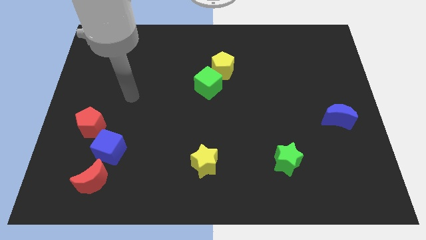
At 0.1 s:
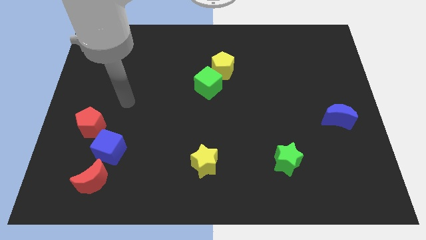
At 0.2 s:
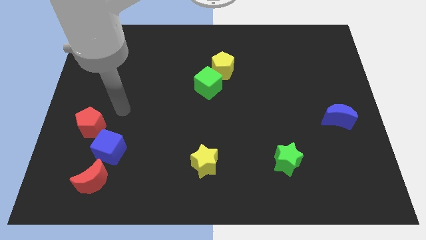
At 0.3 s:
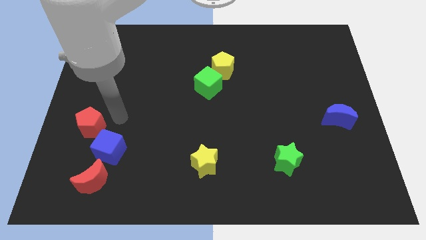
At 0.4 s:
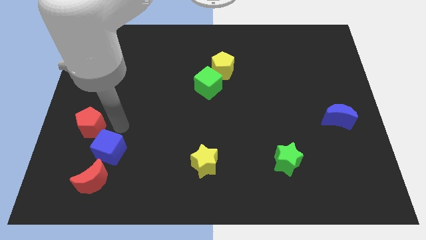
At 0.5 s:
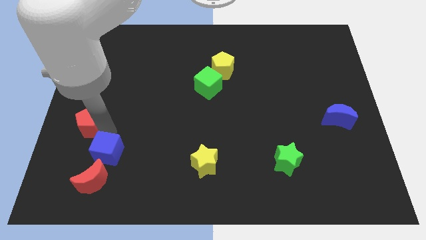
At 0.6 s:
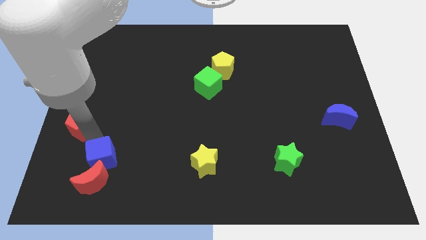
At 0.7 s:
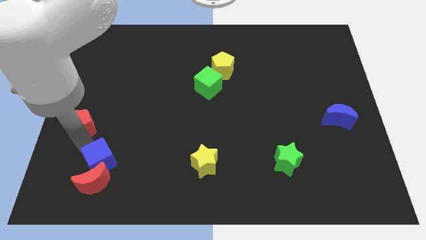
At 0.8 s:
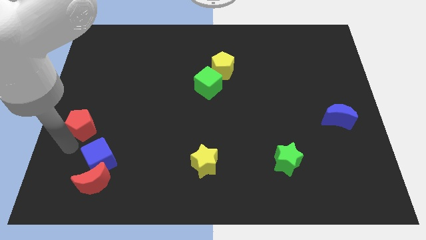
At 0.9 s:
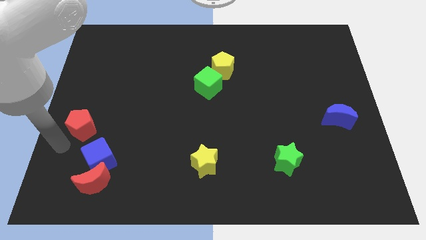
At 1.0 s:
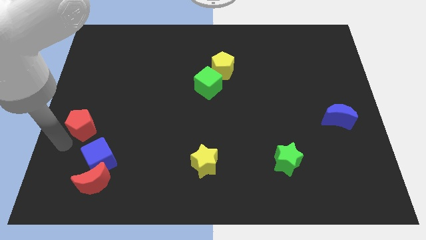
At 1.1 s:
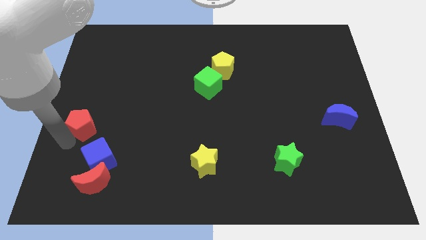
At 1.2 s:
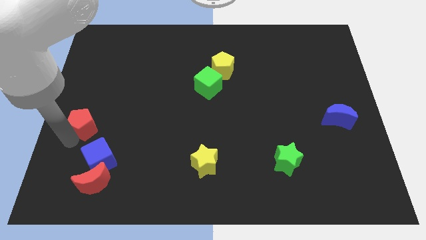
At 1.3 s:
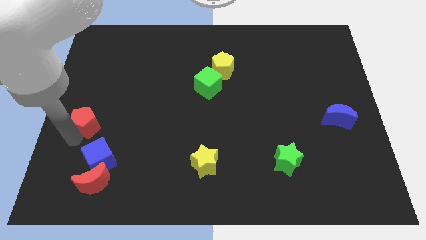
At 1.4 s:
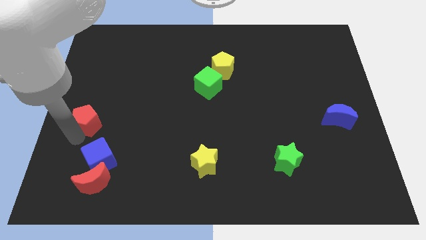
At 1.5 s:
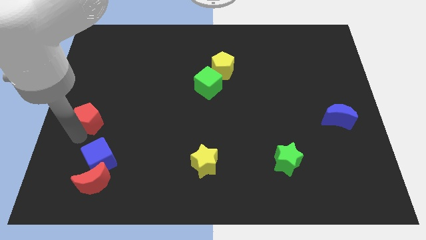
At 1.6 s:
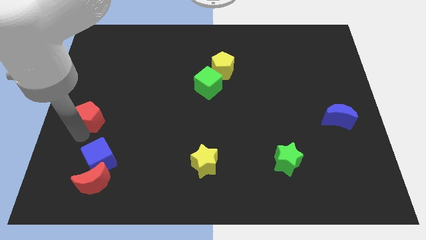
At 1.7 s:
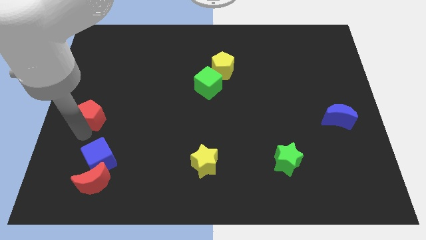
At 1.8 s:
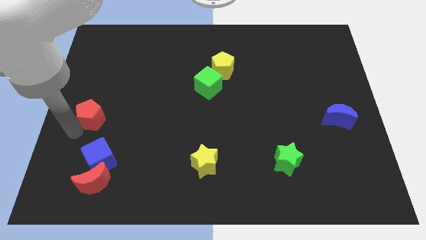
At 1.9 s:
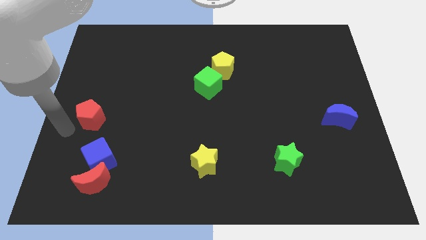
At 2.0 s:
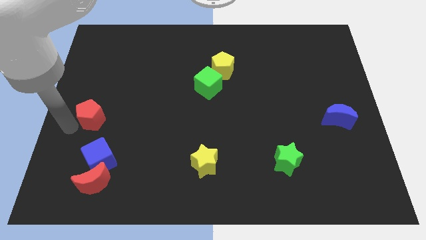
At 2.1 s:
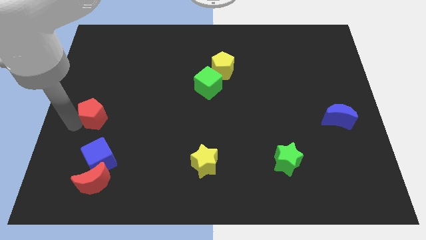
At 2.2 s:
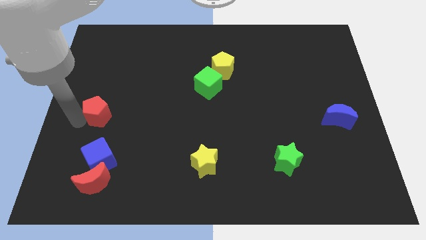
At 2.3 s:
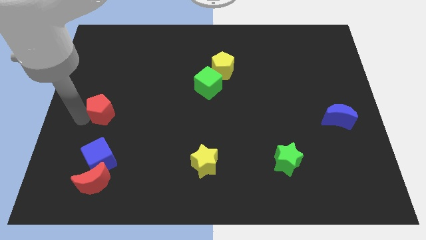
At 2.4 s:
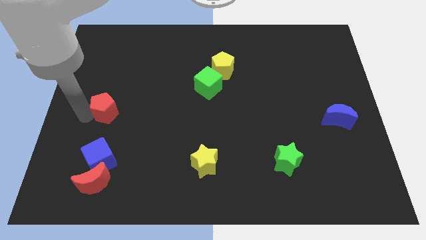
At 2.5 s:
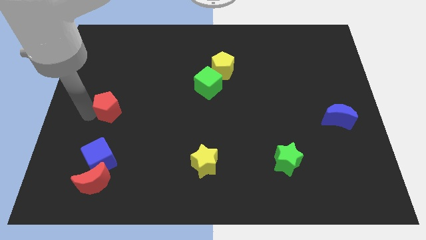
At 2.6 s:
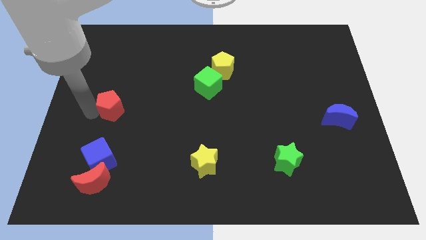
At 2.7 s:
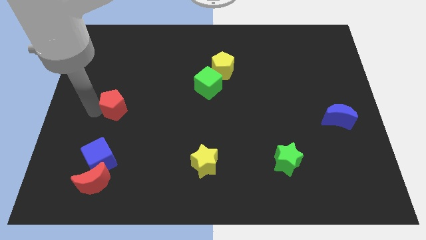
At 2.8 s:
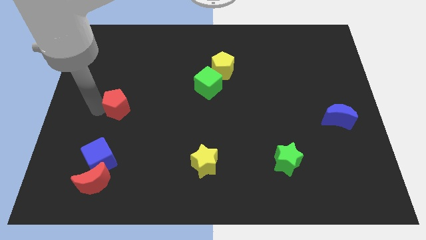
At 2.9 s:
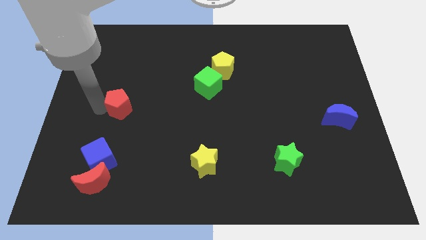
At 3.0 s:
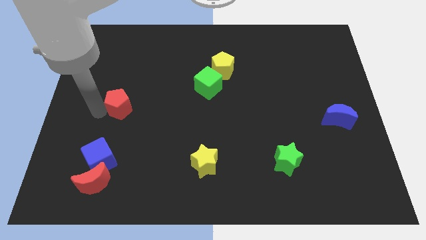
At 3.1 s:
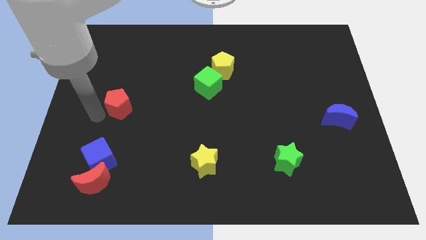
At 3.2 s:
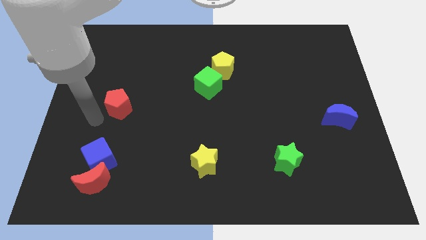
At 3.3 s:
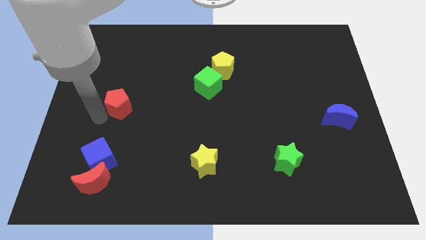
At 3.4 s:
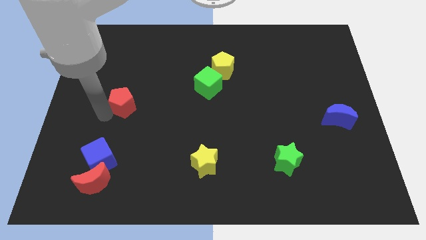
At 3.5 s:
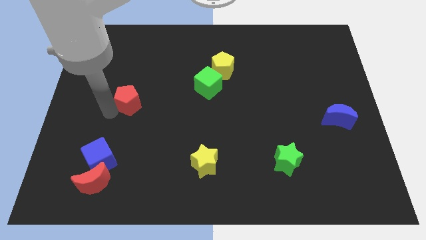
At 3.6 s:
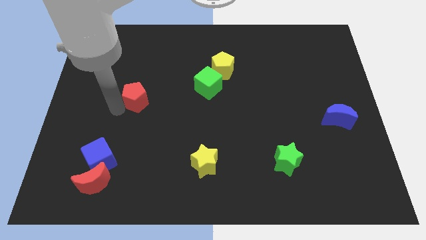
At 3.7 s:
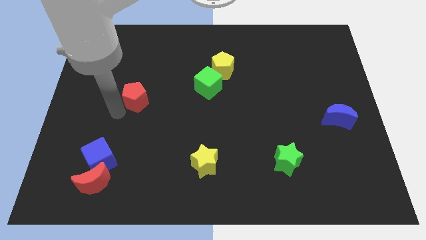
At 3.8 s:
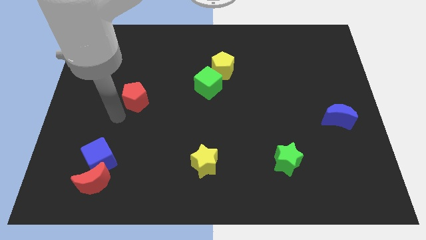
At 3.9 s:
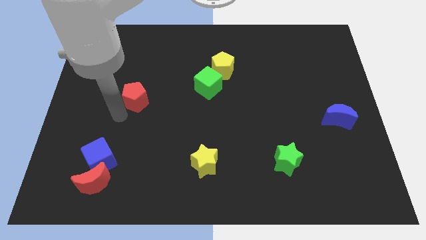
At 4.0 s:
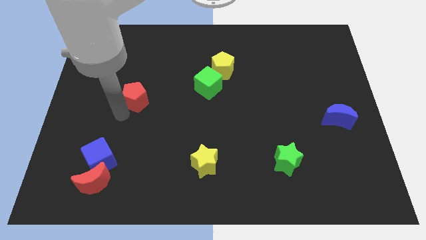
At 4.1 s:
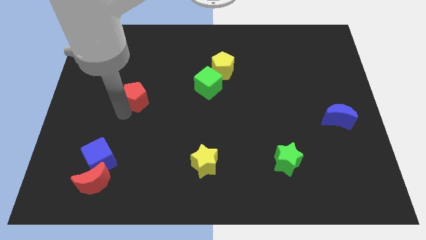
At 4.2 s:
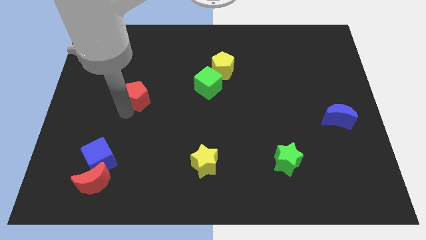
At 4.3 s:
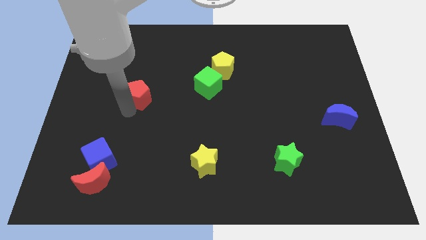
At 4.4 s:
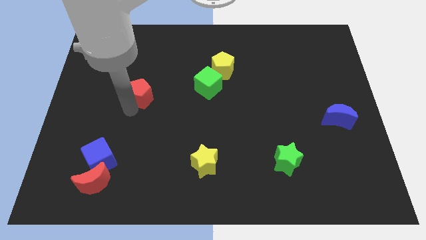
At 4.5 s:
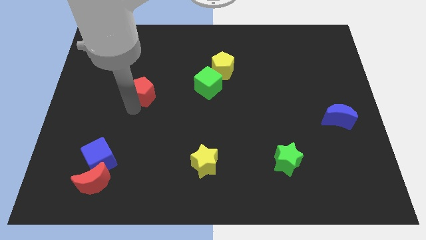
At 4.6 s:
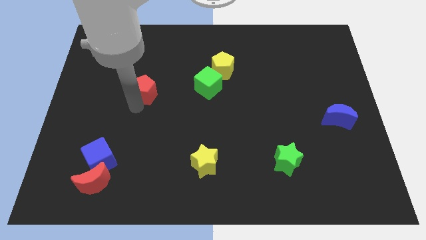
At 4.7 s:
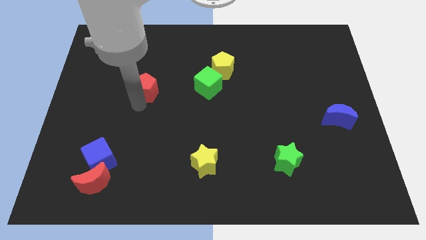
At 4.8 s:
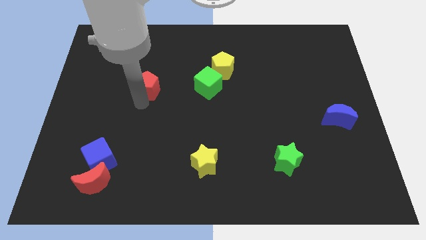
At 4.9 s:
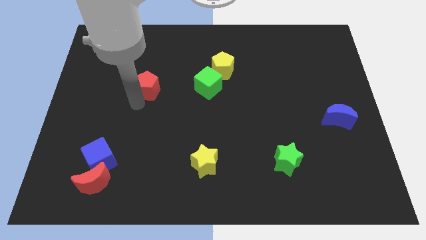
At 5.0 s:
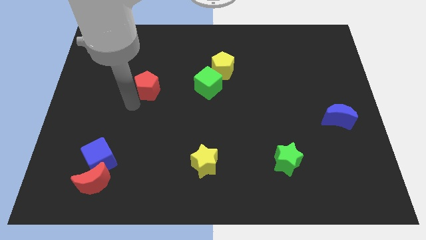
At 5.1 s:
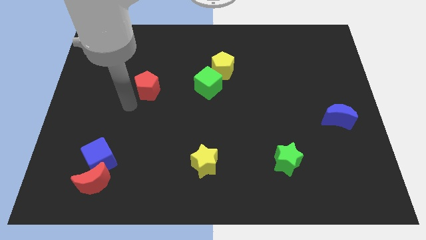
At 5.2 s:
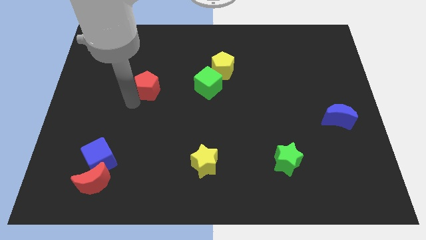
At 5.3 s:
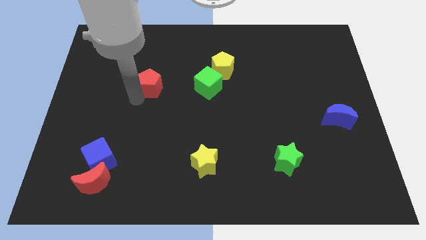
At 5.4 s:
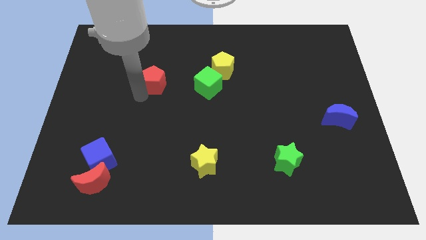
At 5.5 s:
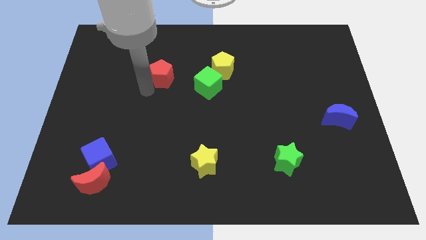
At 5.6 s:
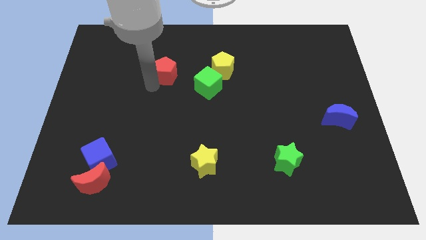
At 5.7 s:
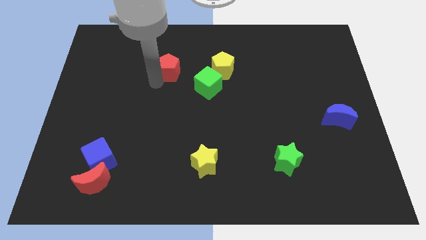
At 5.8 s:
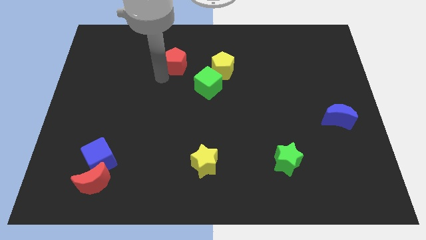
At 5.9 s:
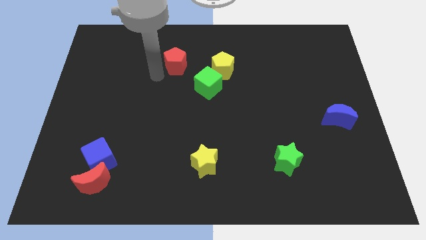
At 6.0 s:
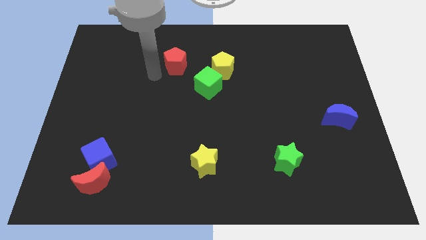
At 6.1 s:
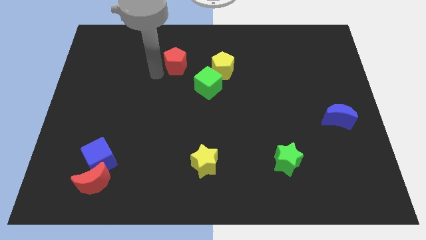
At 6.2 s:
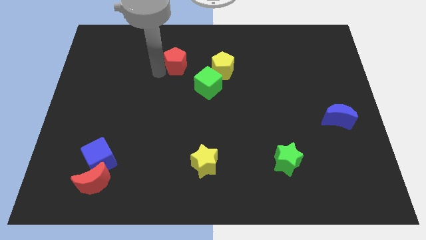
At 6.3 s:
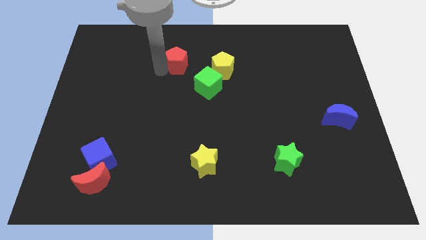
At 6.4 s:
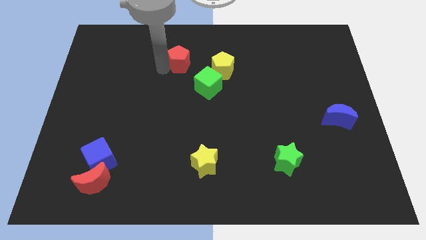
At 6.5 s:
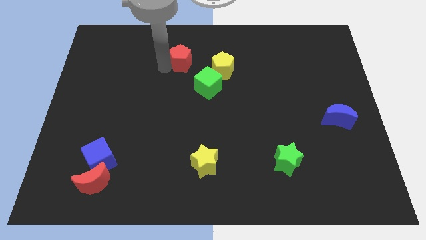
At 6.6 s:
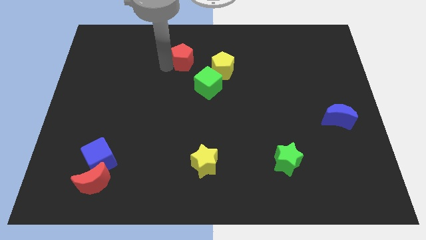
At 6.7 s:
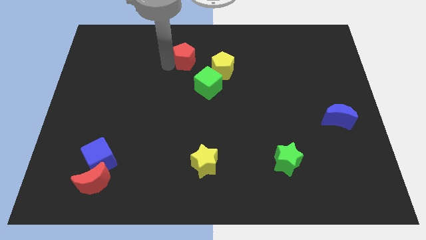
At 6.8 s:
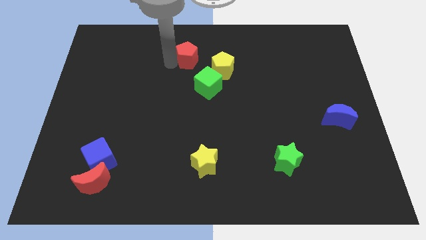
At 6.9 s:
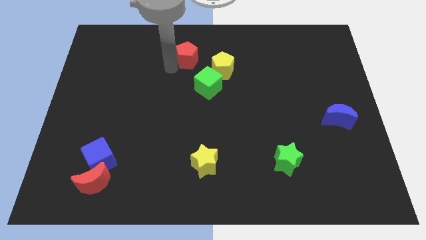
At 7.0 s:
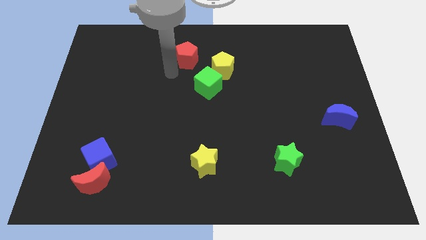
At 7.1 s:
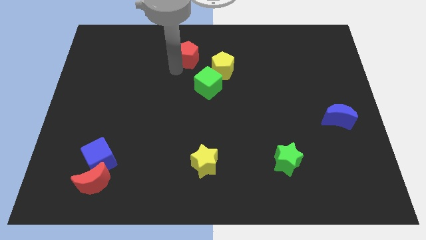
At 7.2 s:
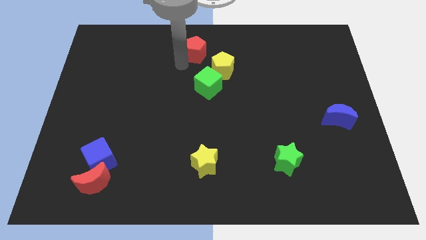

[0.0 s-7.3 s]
slide the red pentagon to the top
